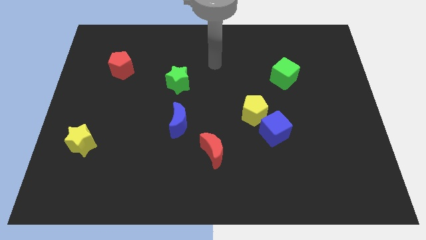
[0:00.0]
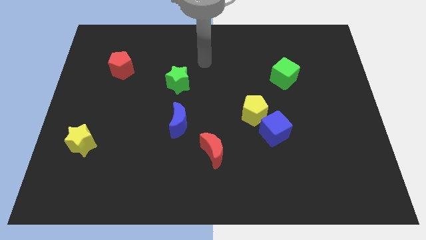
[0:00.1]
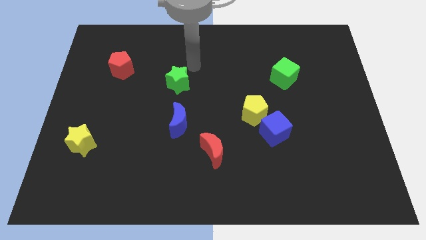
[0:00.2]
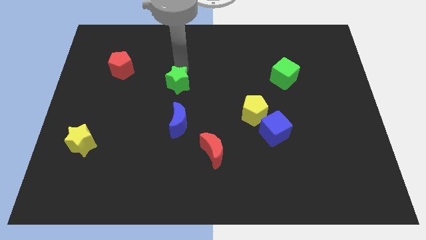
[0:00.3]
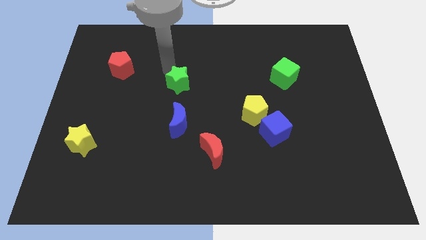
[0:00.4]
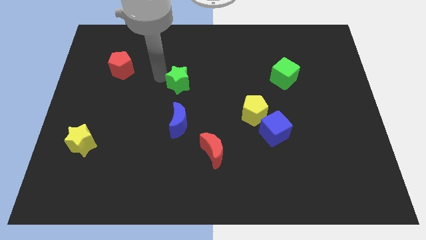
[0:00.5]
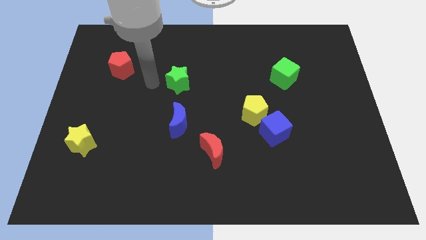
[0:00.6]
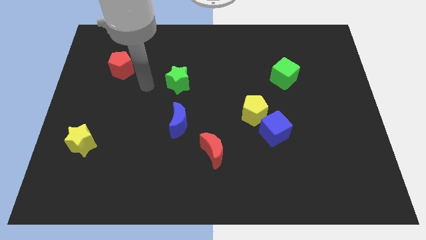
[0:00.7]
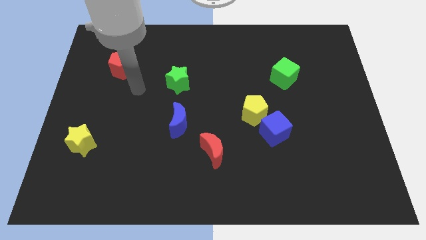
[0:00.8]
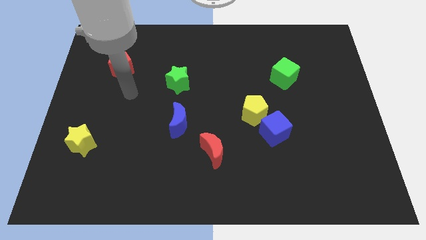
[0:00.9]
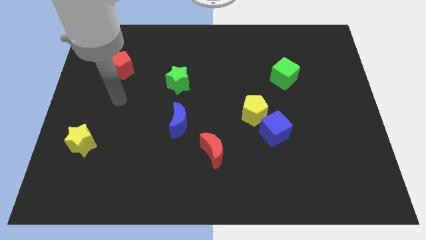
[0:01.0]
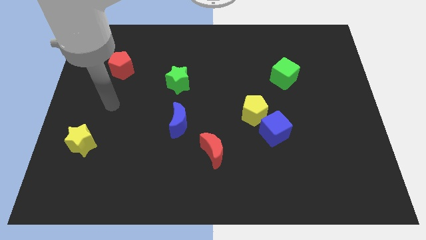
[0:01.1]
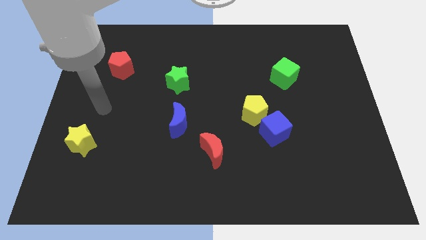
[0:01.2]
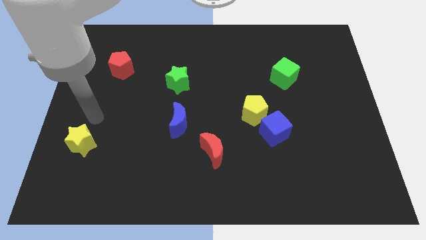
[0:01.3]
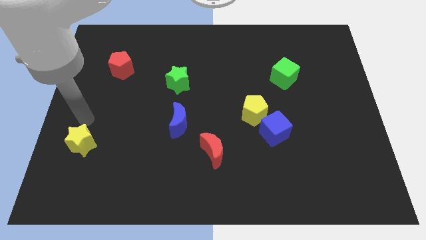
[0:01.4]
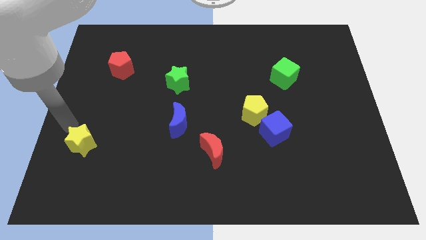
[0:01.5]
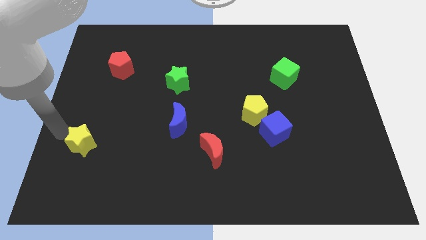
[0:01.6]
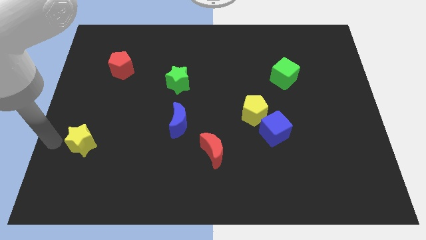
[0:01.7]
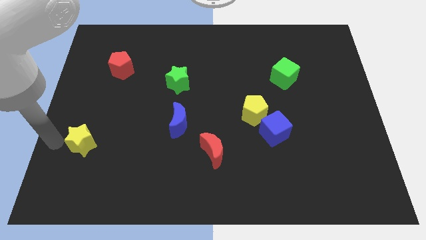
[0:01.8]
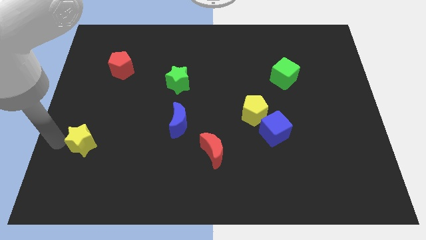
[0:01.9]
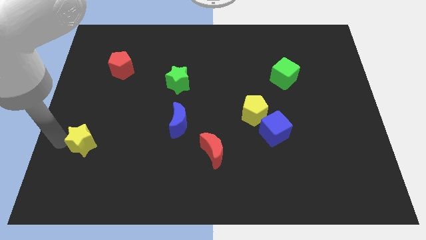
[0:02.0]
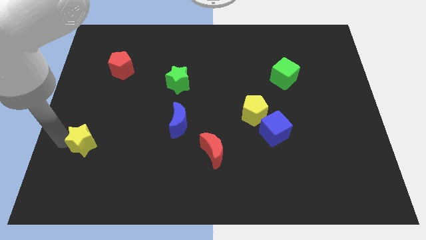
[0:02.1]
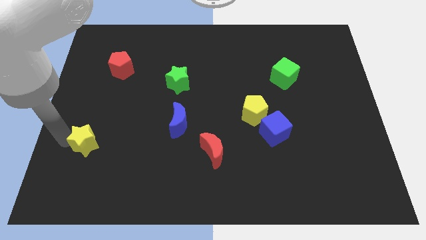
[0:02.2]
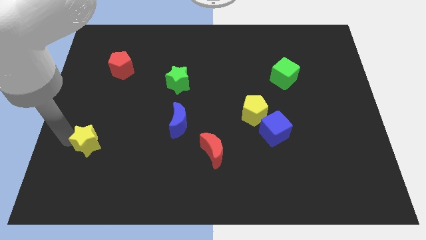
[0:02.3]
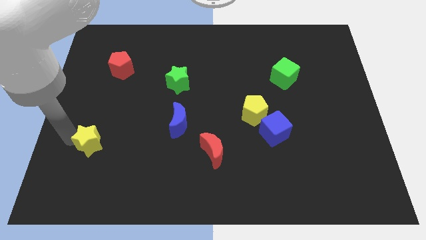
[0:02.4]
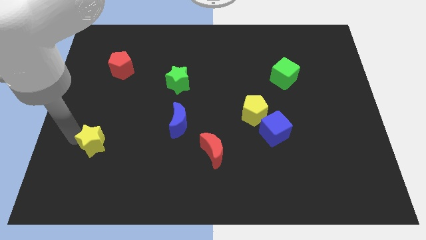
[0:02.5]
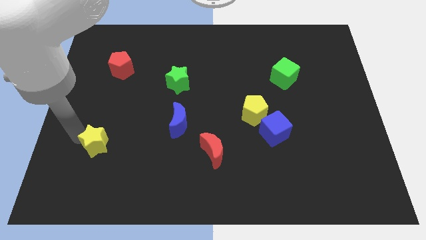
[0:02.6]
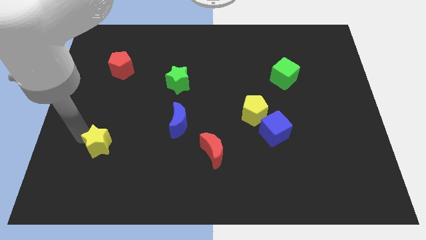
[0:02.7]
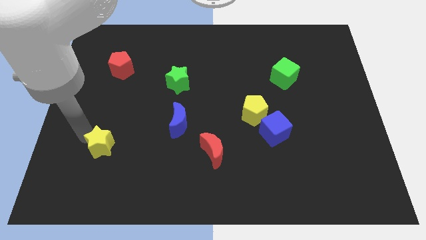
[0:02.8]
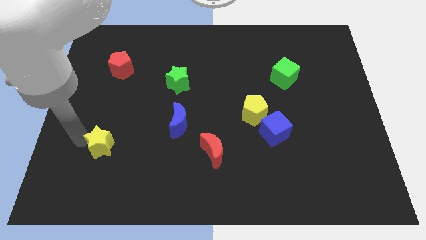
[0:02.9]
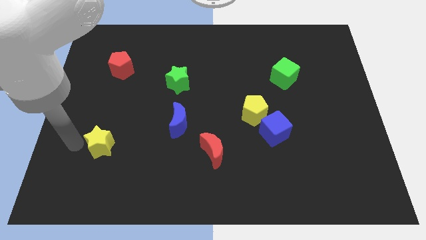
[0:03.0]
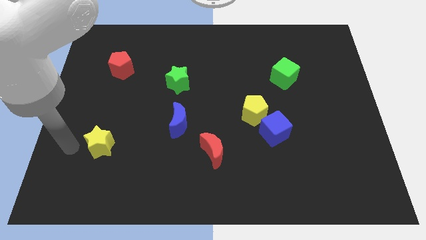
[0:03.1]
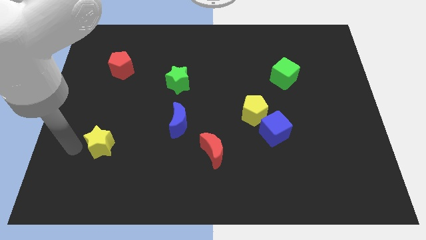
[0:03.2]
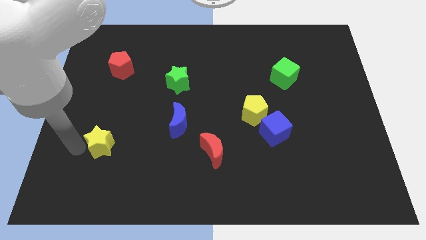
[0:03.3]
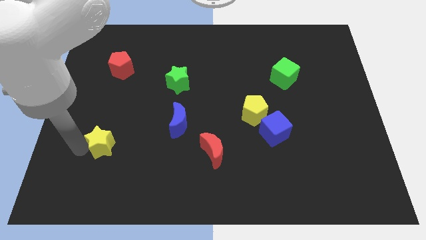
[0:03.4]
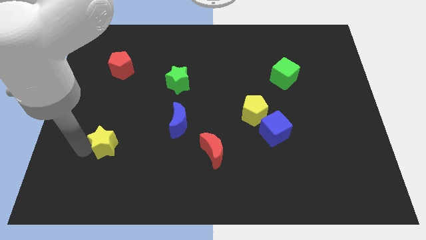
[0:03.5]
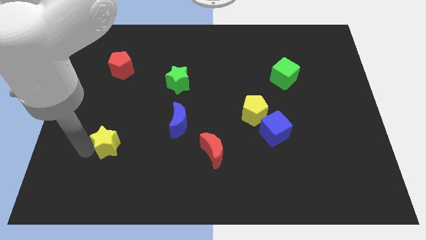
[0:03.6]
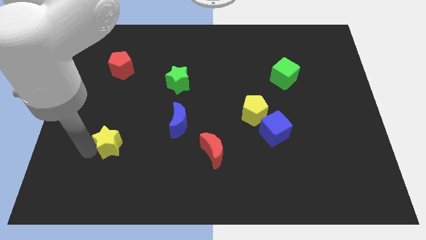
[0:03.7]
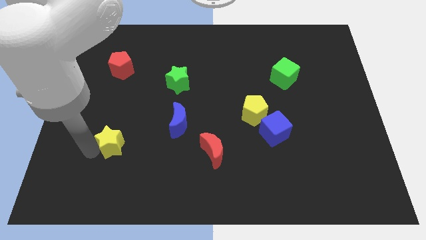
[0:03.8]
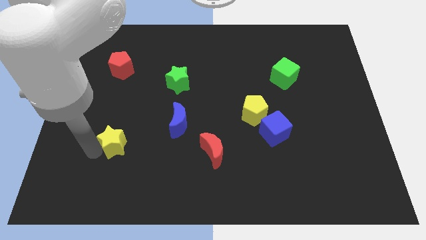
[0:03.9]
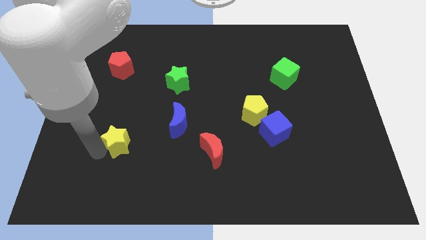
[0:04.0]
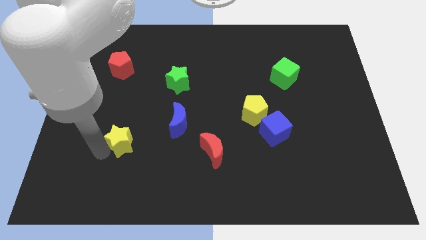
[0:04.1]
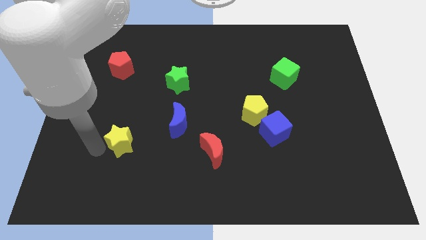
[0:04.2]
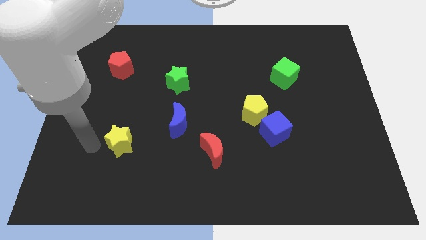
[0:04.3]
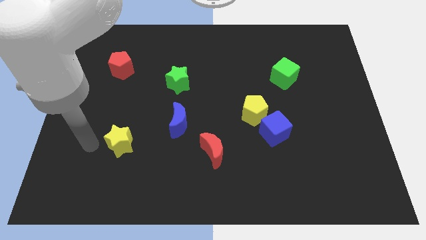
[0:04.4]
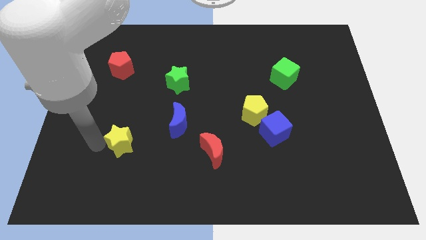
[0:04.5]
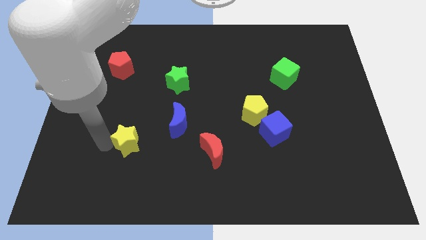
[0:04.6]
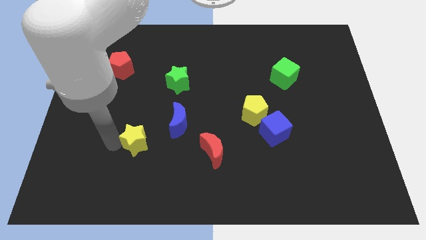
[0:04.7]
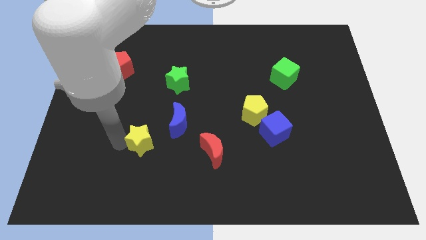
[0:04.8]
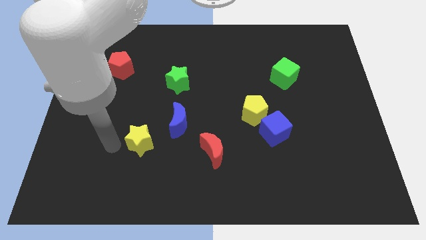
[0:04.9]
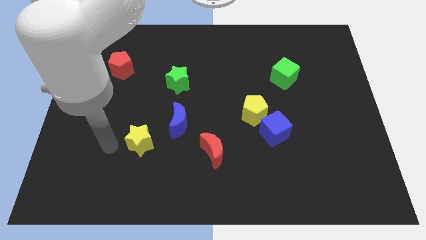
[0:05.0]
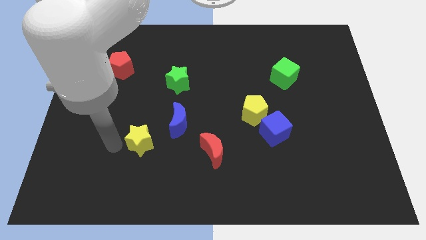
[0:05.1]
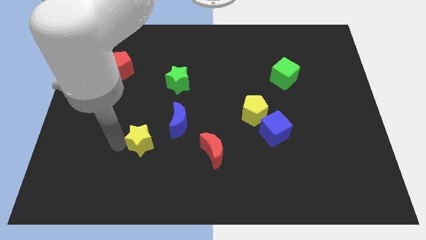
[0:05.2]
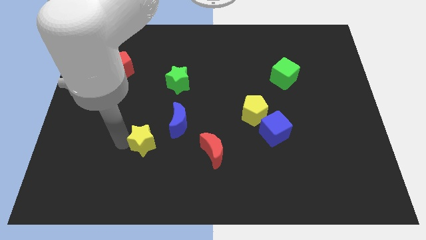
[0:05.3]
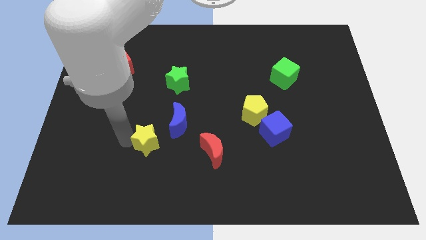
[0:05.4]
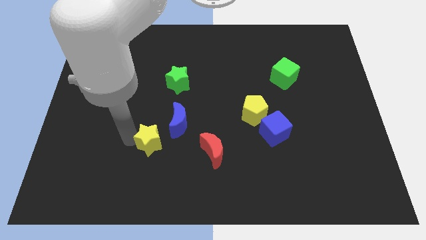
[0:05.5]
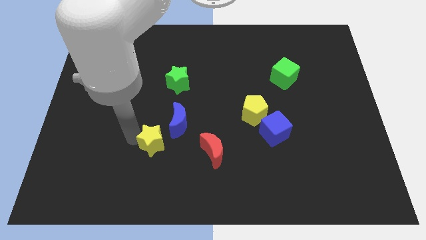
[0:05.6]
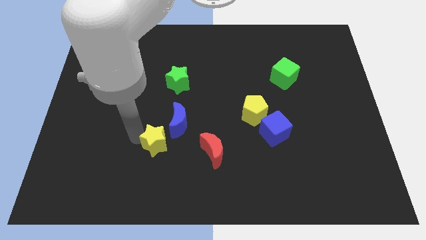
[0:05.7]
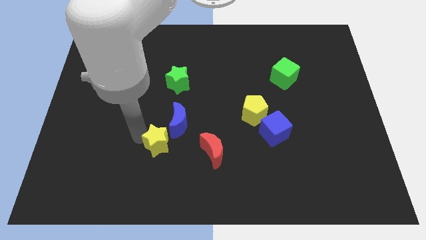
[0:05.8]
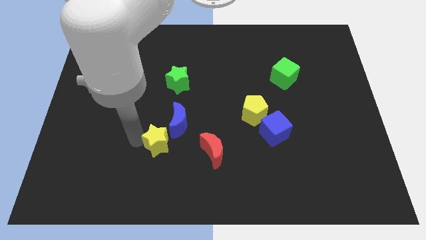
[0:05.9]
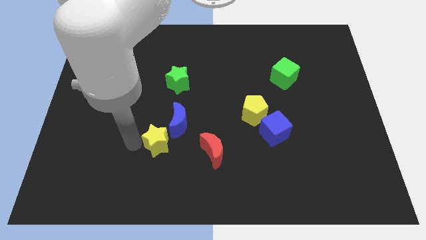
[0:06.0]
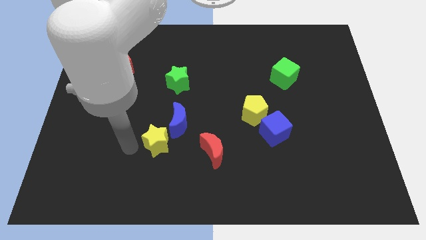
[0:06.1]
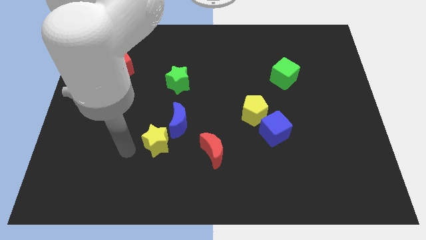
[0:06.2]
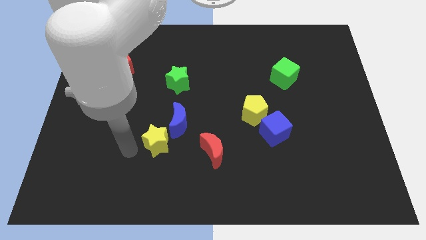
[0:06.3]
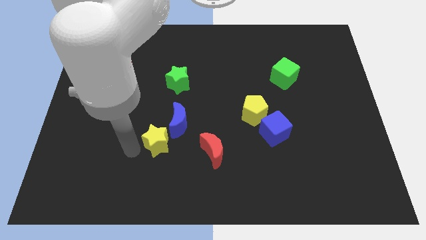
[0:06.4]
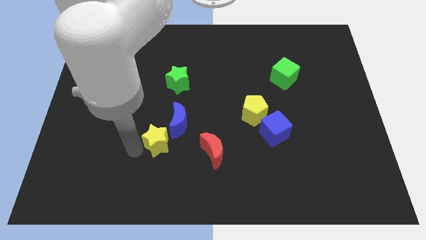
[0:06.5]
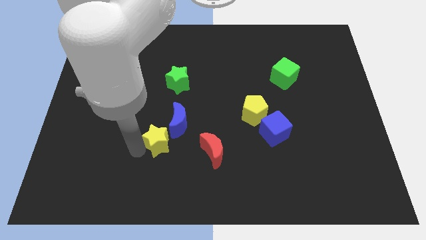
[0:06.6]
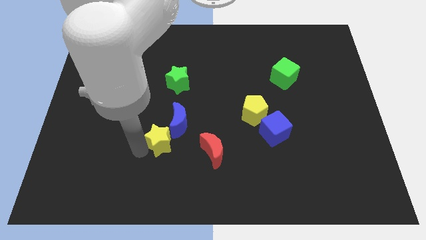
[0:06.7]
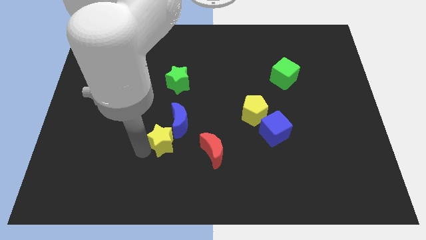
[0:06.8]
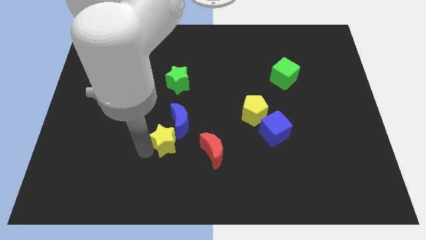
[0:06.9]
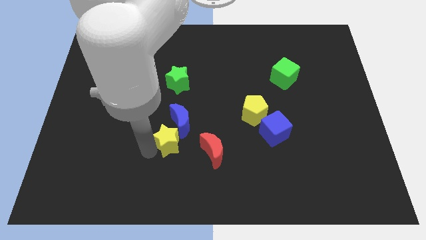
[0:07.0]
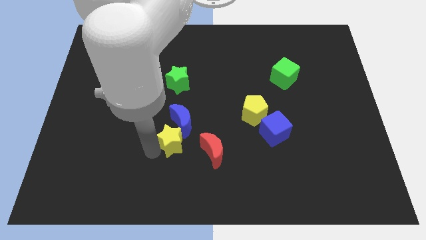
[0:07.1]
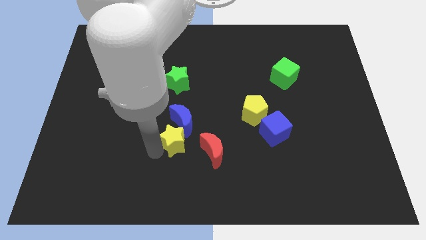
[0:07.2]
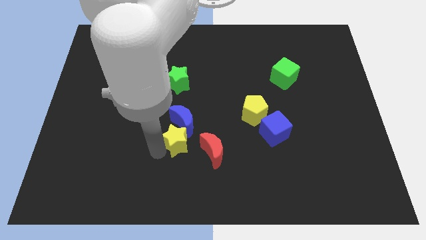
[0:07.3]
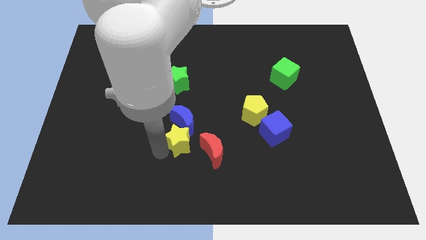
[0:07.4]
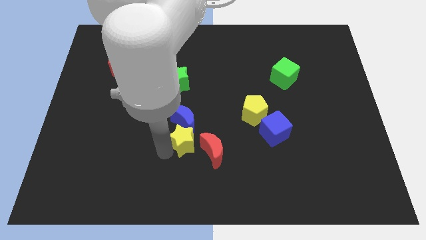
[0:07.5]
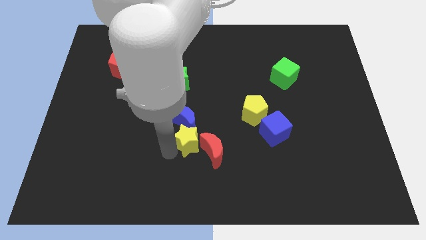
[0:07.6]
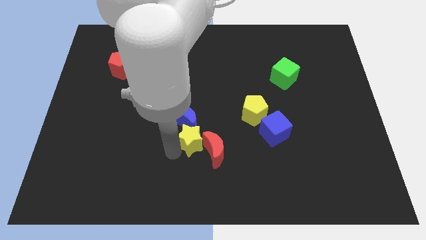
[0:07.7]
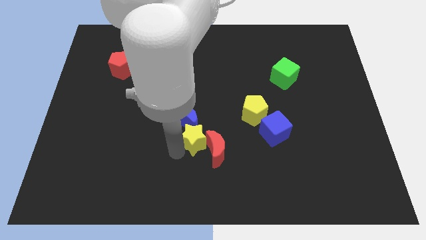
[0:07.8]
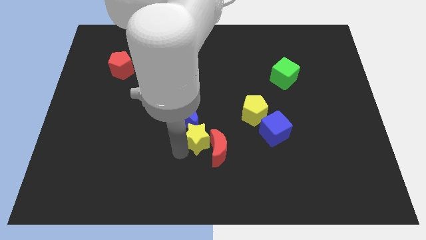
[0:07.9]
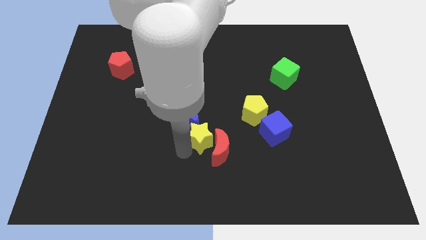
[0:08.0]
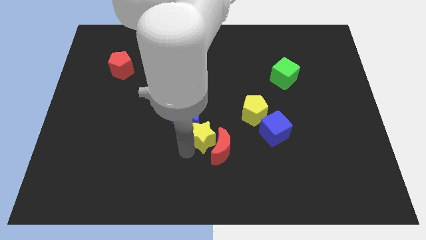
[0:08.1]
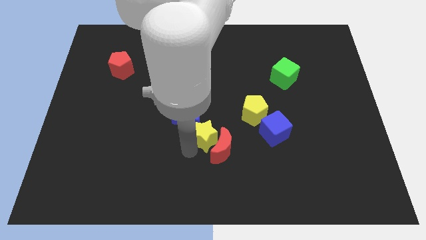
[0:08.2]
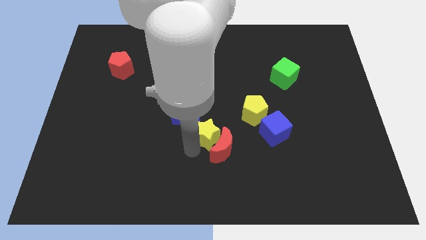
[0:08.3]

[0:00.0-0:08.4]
move the yellow star right of the blue moon
